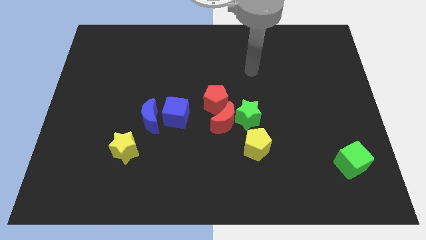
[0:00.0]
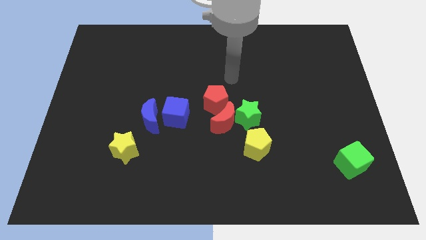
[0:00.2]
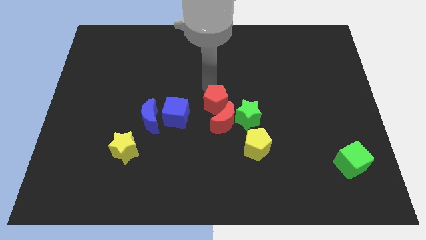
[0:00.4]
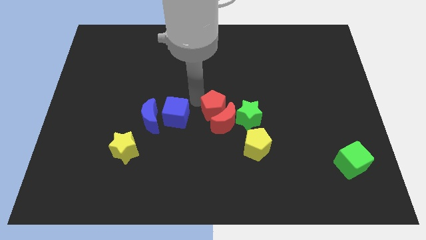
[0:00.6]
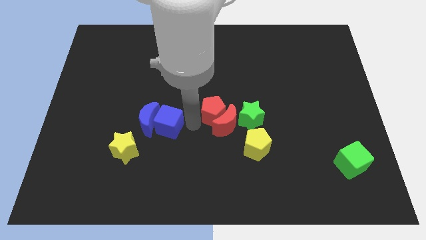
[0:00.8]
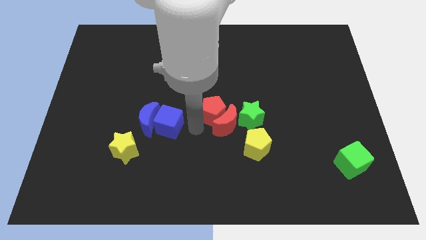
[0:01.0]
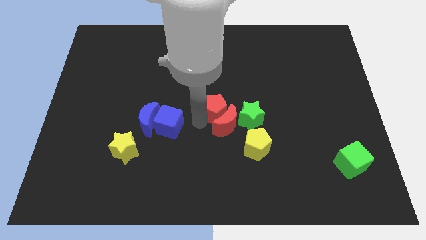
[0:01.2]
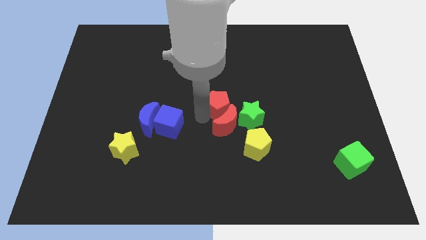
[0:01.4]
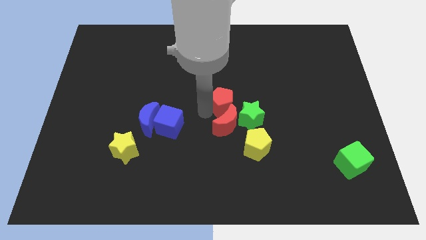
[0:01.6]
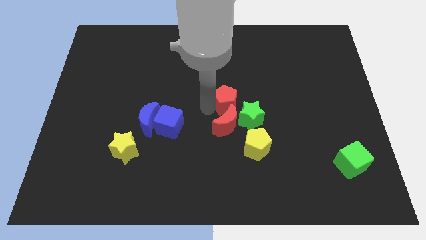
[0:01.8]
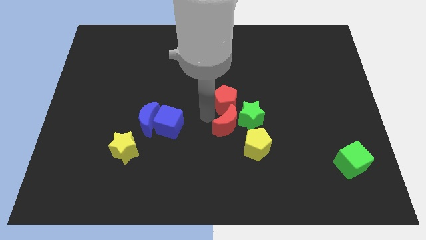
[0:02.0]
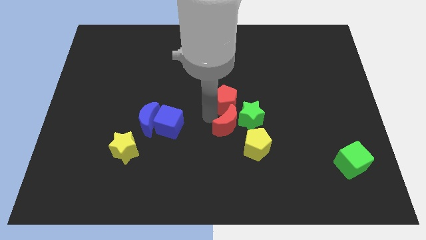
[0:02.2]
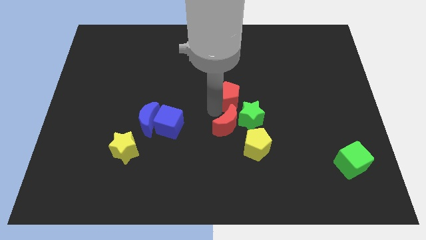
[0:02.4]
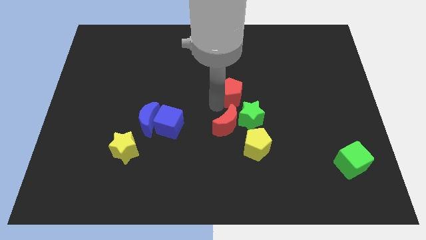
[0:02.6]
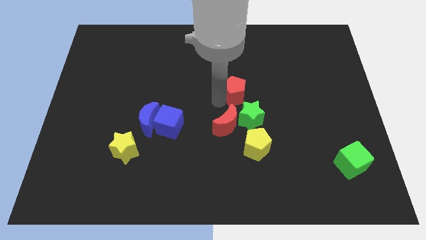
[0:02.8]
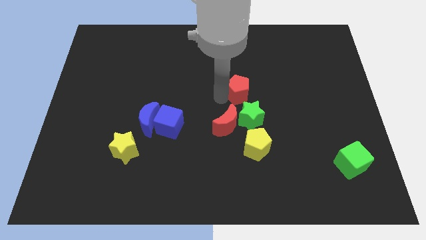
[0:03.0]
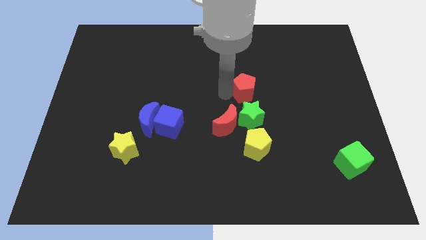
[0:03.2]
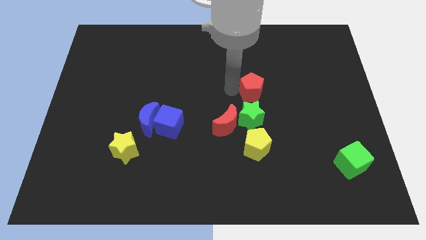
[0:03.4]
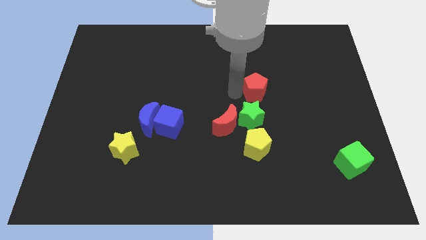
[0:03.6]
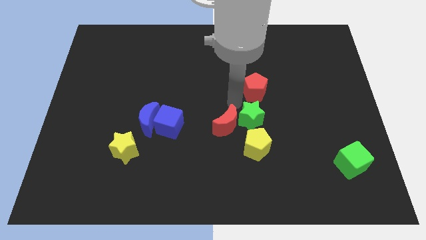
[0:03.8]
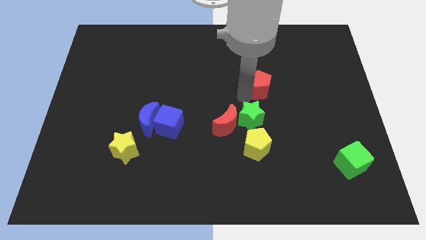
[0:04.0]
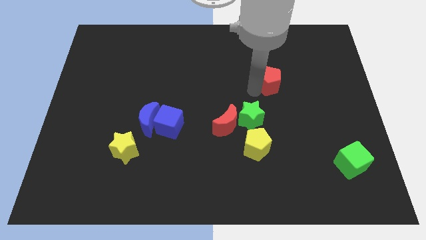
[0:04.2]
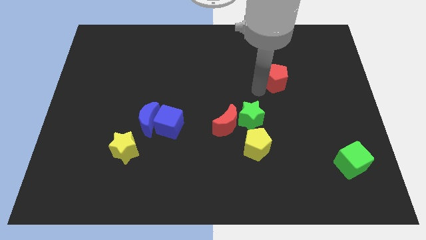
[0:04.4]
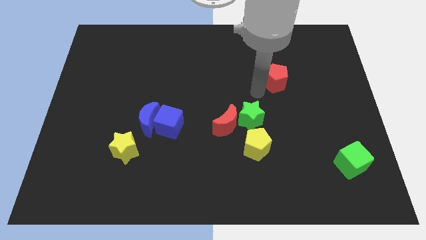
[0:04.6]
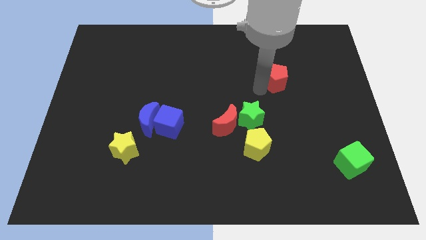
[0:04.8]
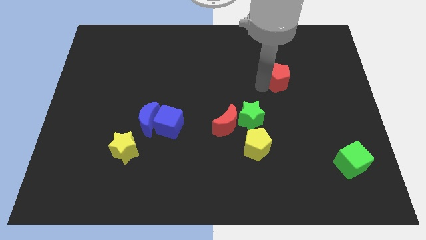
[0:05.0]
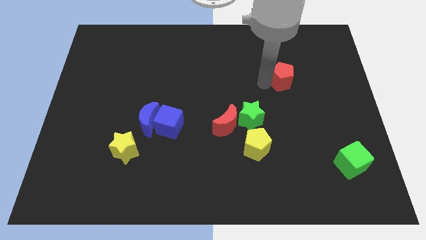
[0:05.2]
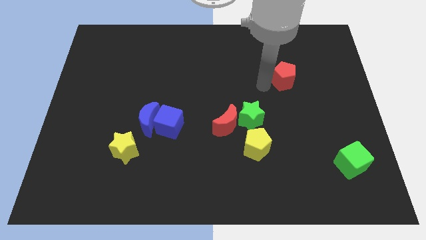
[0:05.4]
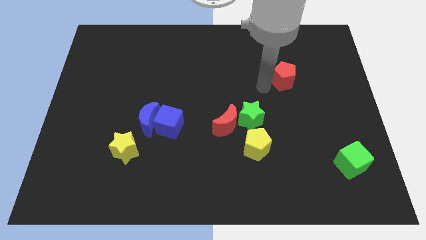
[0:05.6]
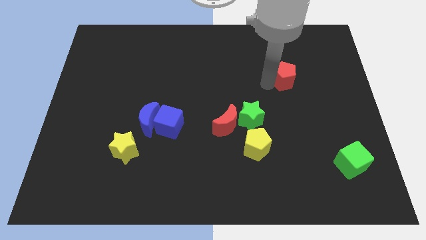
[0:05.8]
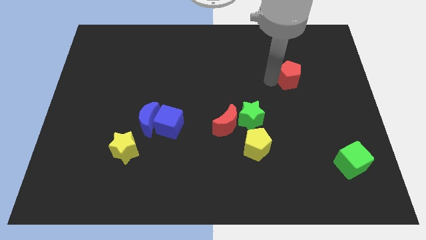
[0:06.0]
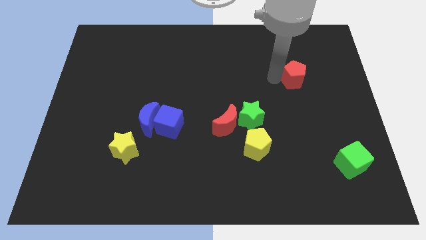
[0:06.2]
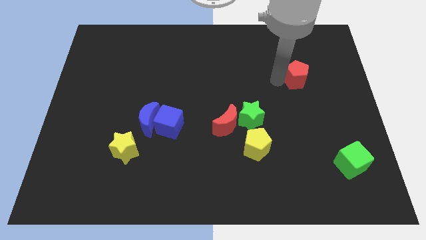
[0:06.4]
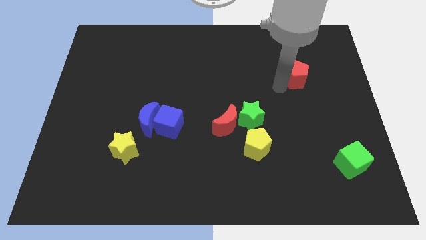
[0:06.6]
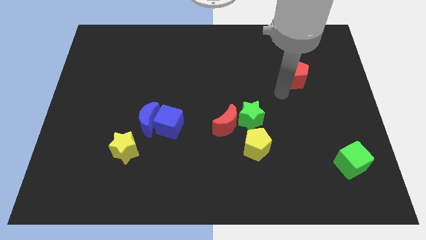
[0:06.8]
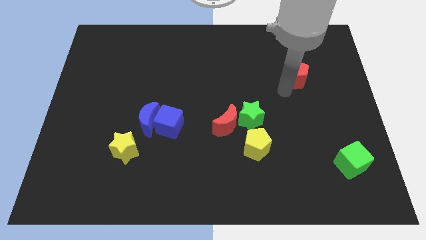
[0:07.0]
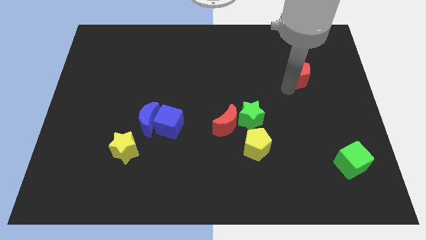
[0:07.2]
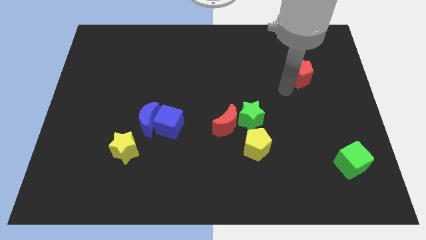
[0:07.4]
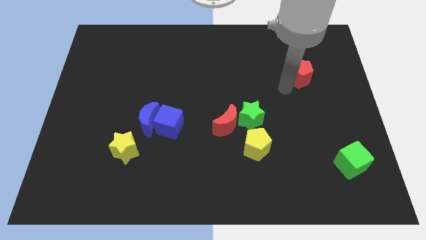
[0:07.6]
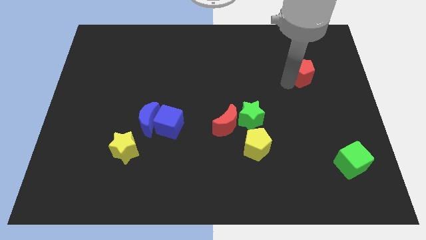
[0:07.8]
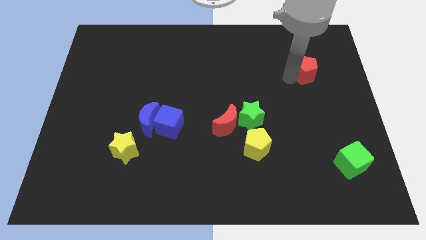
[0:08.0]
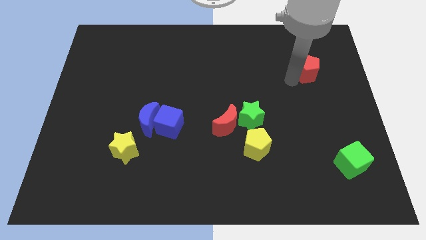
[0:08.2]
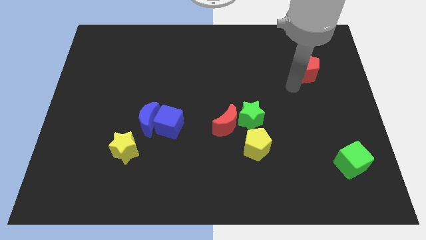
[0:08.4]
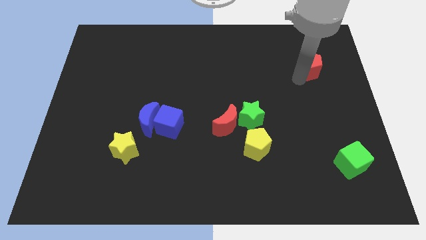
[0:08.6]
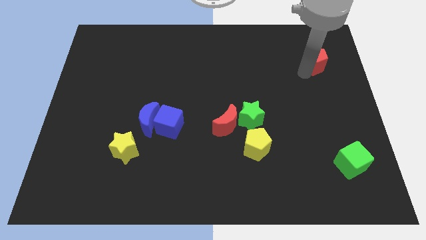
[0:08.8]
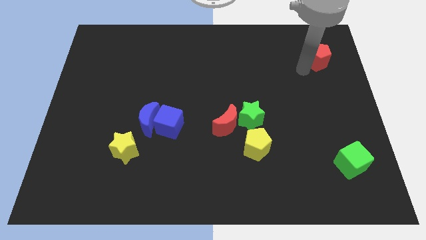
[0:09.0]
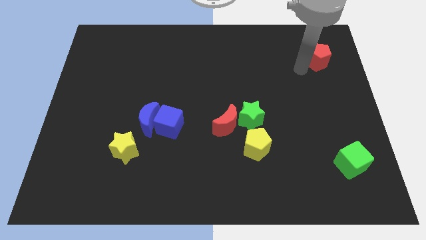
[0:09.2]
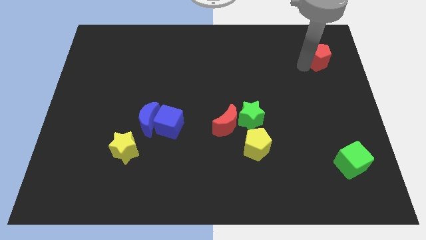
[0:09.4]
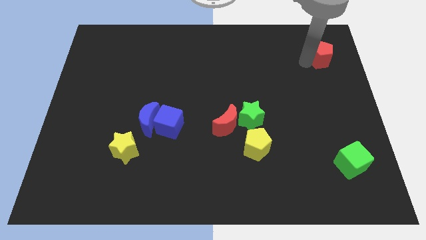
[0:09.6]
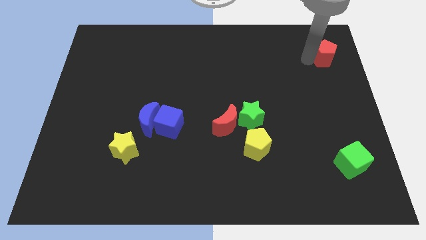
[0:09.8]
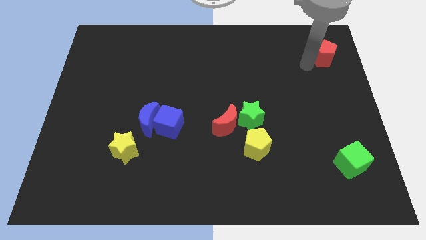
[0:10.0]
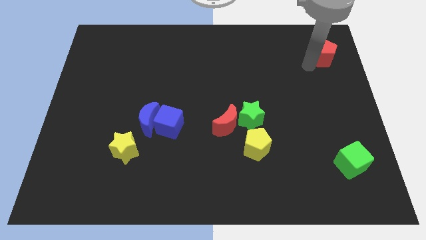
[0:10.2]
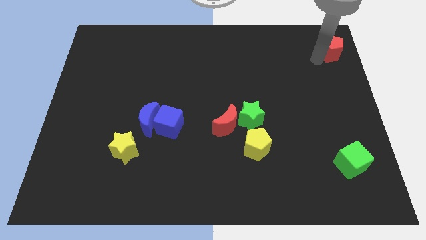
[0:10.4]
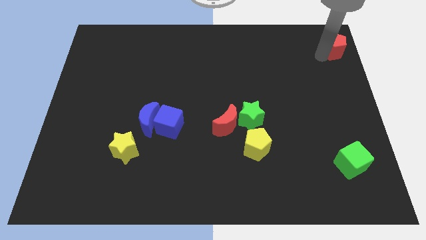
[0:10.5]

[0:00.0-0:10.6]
move the red pentagon to the top right corner

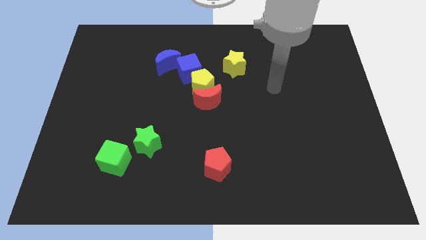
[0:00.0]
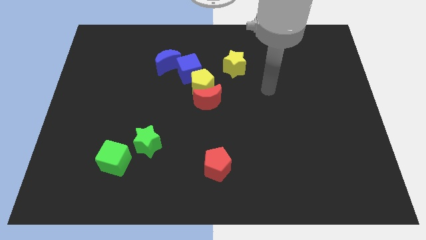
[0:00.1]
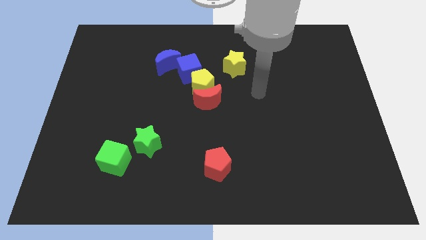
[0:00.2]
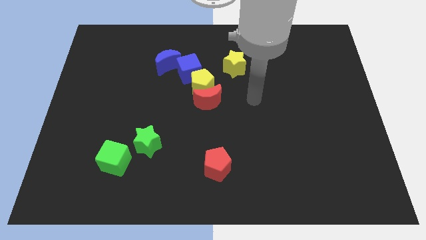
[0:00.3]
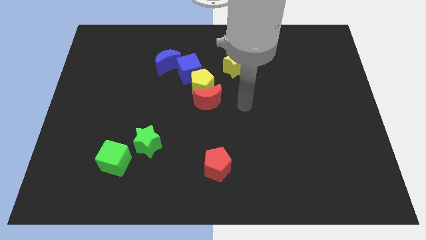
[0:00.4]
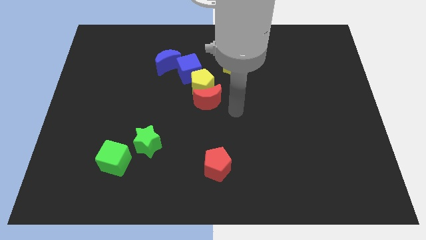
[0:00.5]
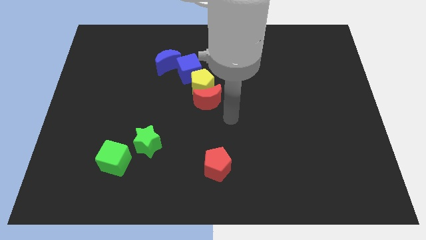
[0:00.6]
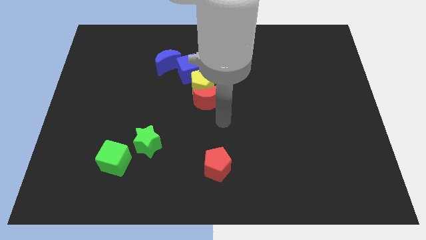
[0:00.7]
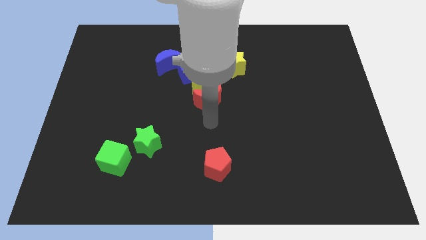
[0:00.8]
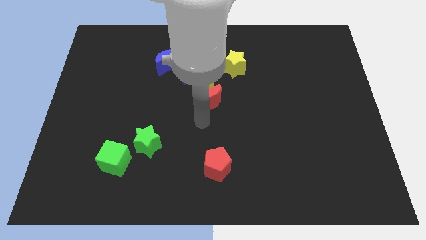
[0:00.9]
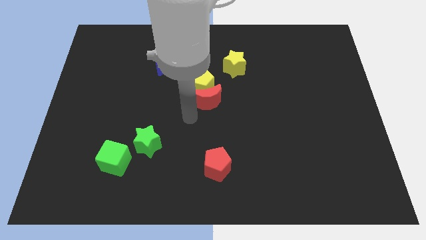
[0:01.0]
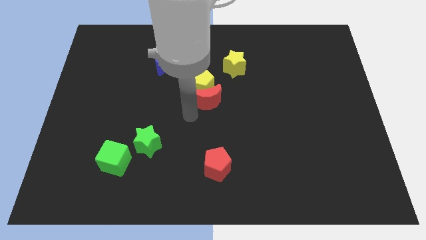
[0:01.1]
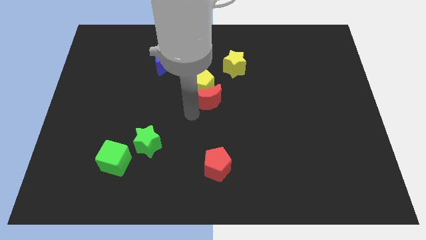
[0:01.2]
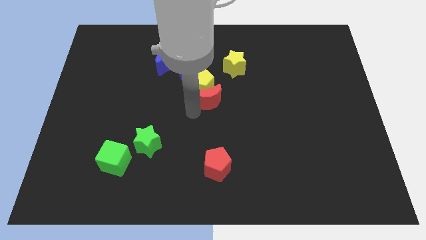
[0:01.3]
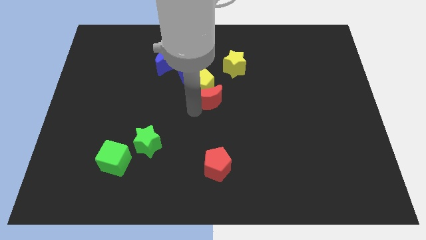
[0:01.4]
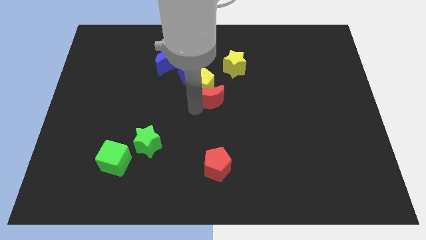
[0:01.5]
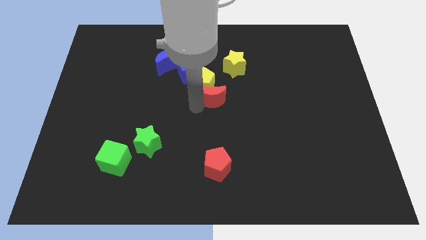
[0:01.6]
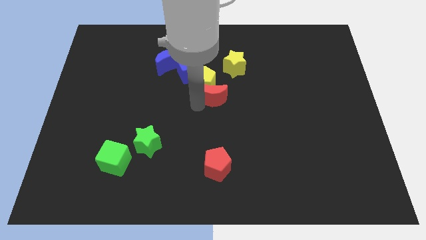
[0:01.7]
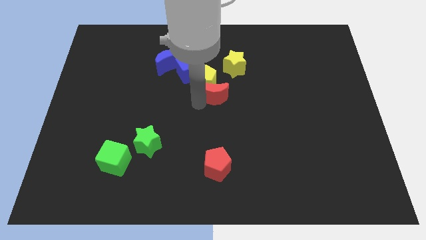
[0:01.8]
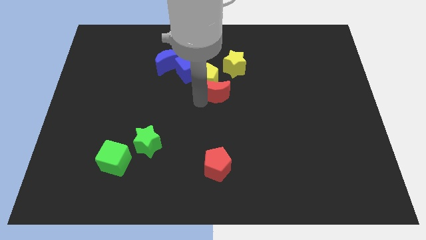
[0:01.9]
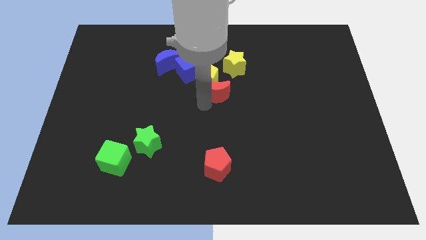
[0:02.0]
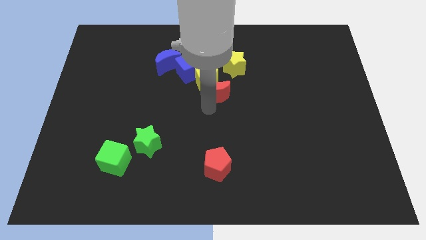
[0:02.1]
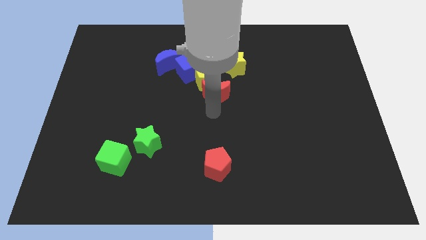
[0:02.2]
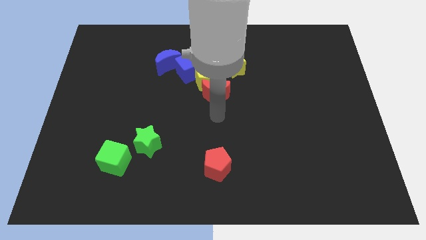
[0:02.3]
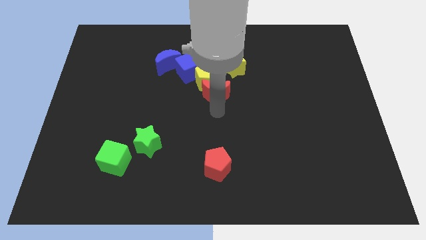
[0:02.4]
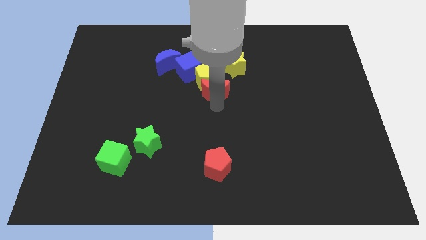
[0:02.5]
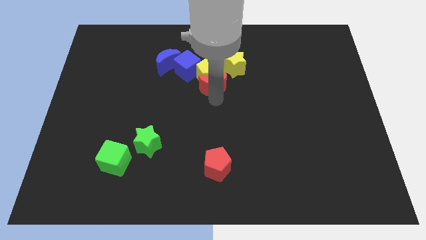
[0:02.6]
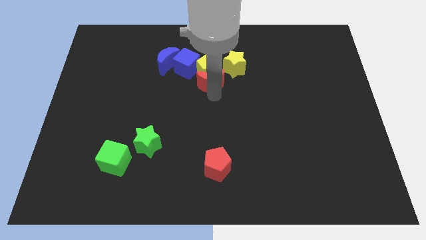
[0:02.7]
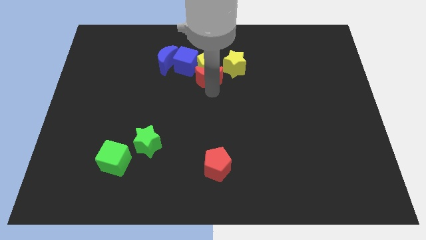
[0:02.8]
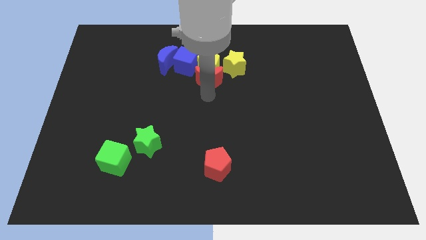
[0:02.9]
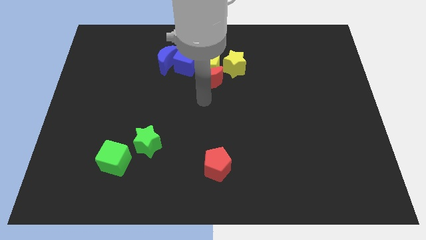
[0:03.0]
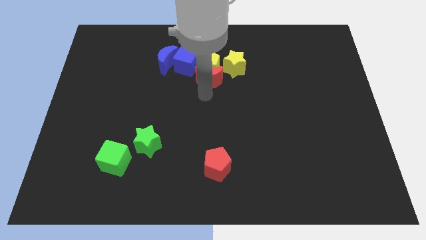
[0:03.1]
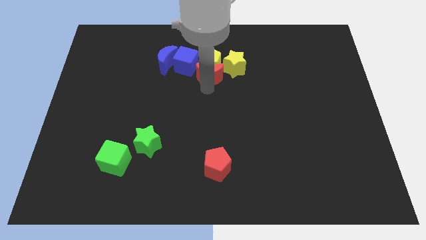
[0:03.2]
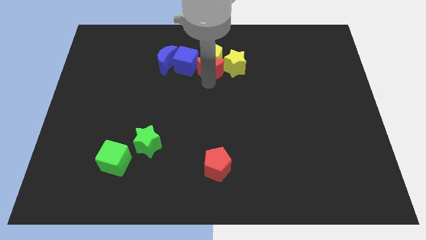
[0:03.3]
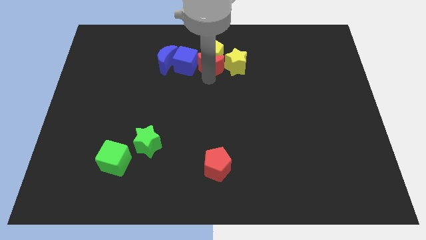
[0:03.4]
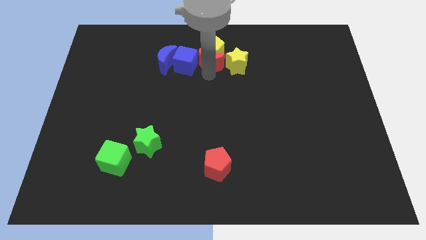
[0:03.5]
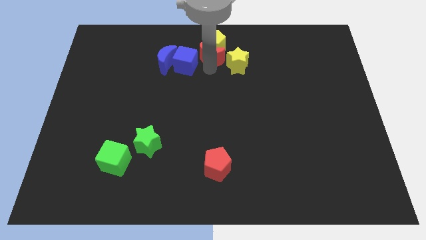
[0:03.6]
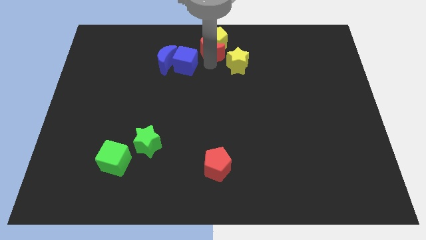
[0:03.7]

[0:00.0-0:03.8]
move the red moon to the towards your base
